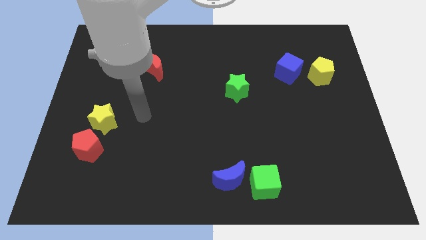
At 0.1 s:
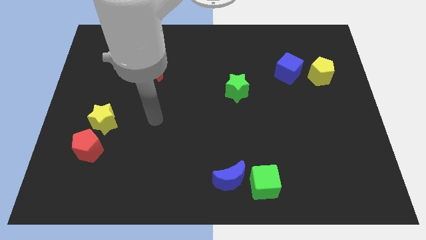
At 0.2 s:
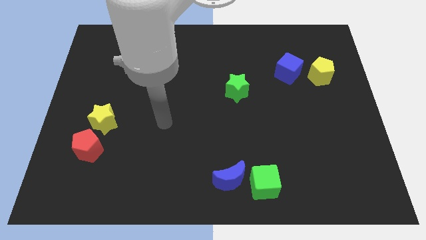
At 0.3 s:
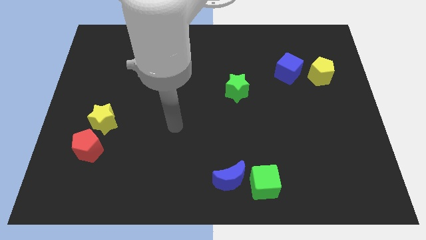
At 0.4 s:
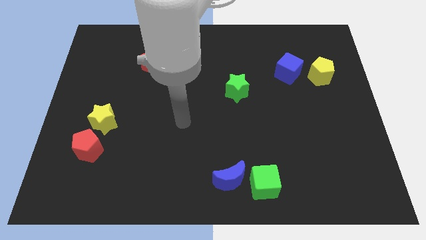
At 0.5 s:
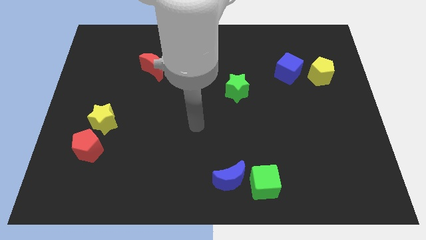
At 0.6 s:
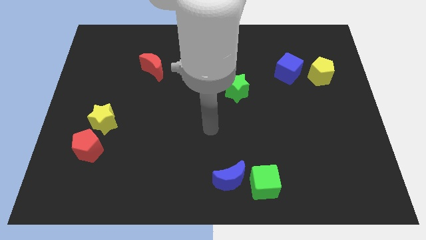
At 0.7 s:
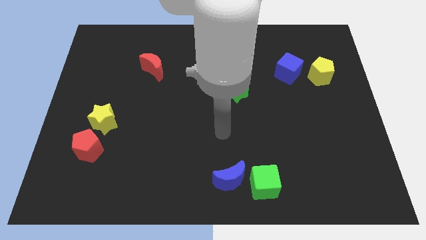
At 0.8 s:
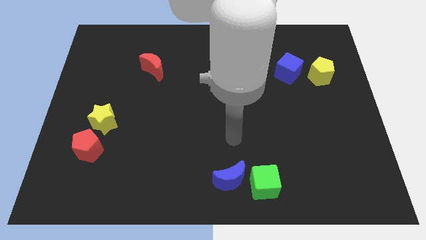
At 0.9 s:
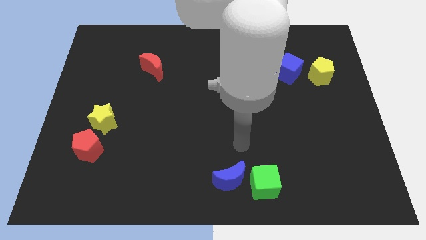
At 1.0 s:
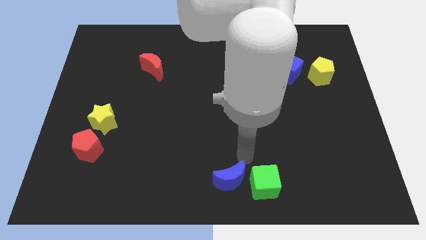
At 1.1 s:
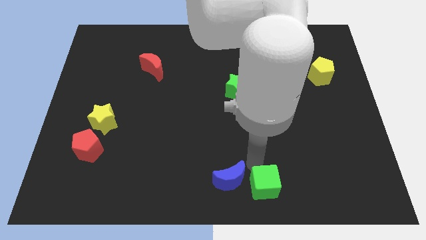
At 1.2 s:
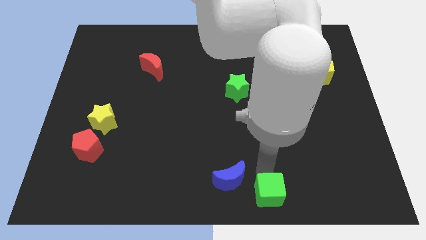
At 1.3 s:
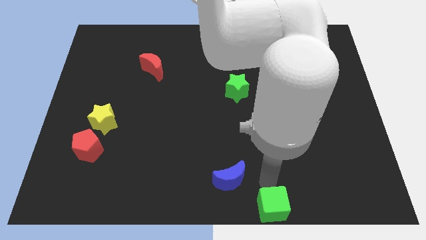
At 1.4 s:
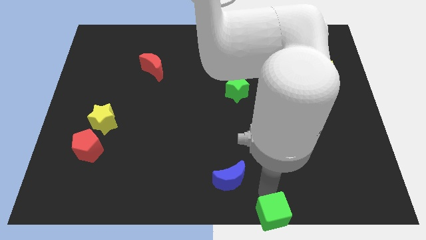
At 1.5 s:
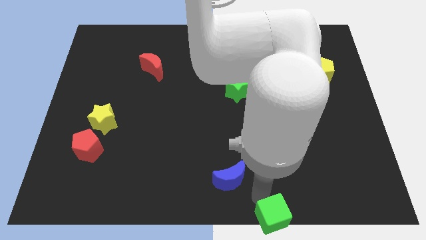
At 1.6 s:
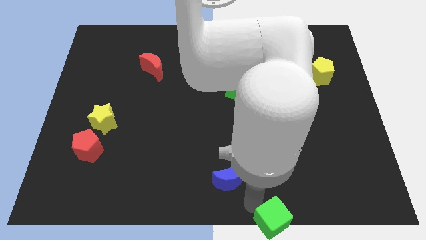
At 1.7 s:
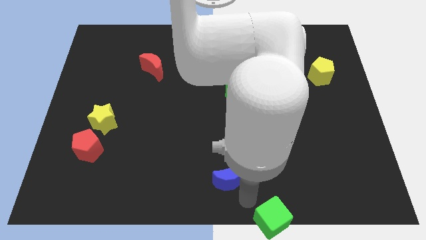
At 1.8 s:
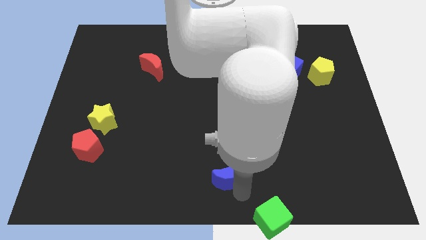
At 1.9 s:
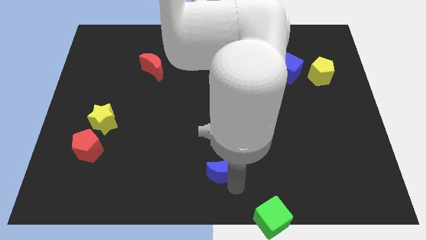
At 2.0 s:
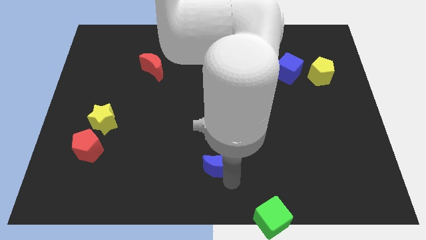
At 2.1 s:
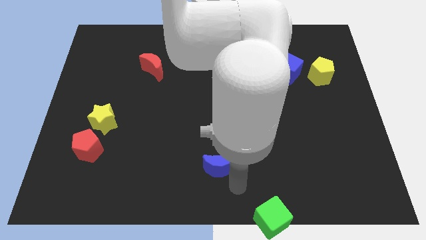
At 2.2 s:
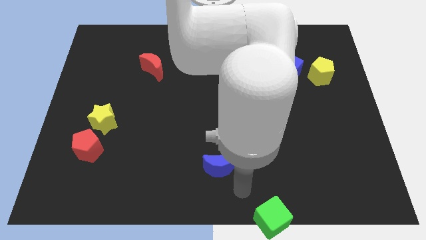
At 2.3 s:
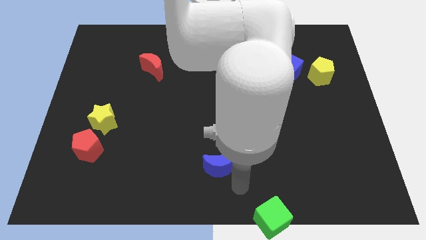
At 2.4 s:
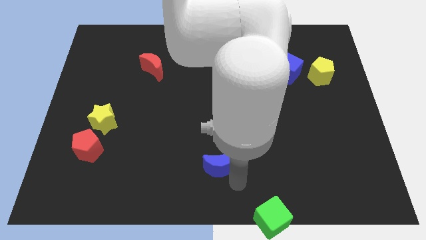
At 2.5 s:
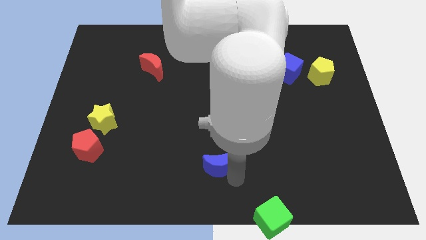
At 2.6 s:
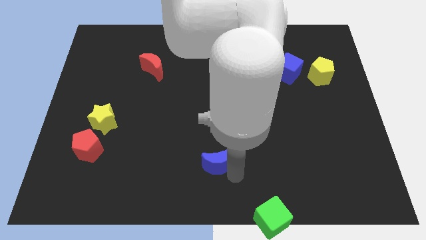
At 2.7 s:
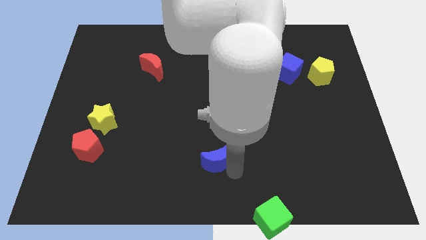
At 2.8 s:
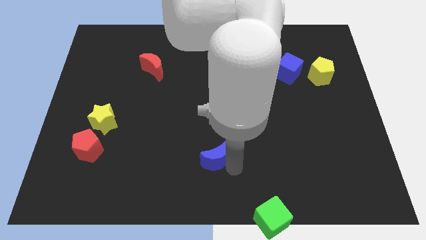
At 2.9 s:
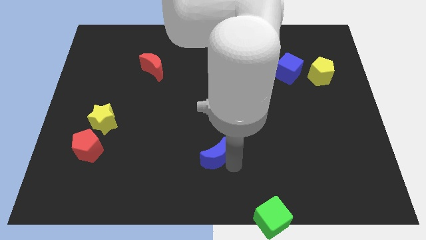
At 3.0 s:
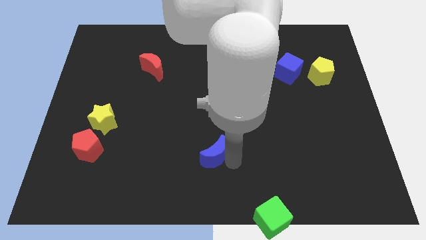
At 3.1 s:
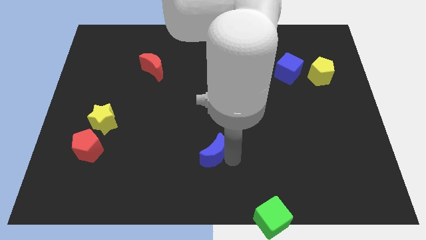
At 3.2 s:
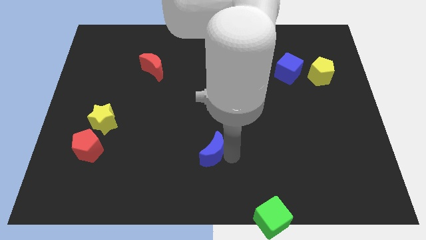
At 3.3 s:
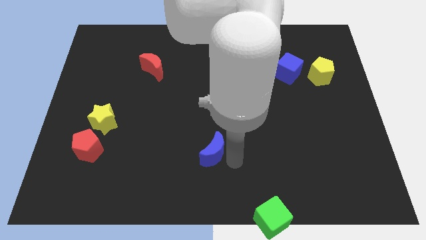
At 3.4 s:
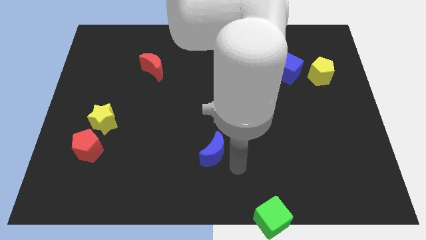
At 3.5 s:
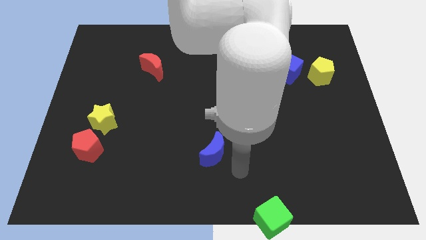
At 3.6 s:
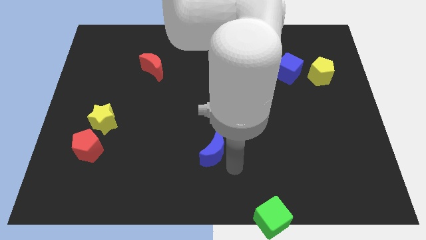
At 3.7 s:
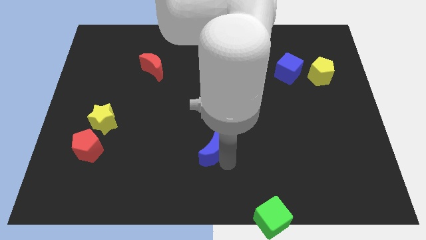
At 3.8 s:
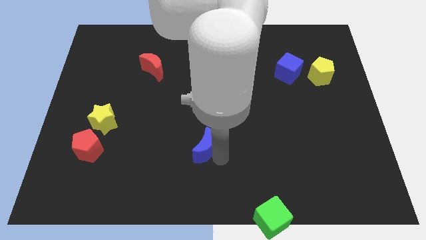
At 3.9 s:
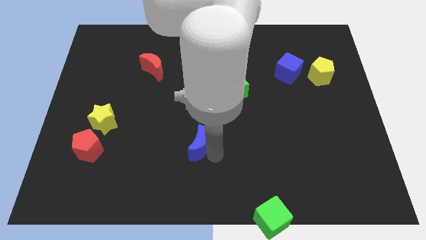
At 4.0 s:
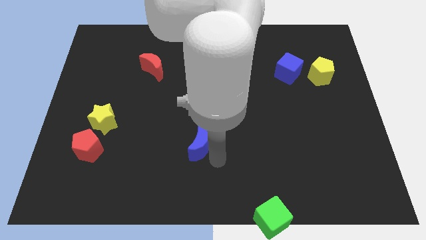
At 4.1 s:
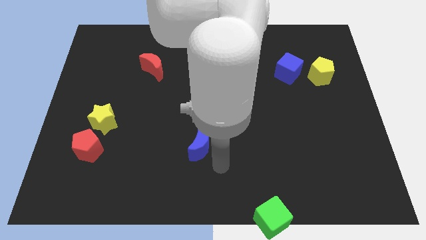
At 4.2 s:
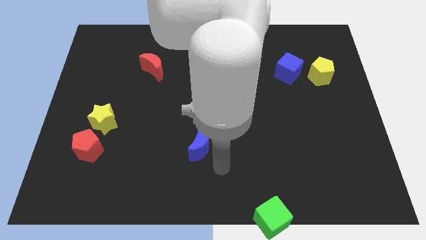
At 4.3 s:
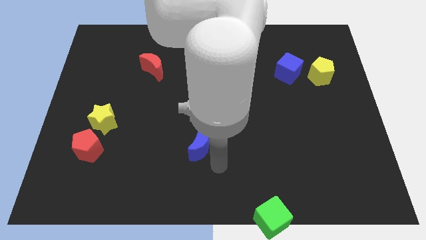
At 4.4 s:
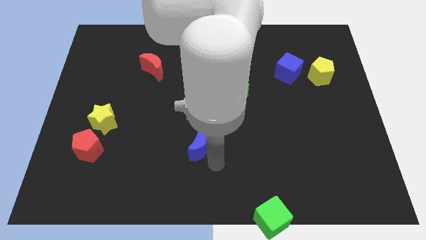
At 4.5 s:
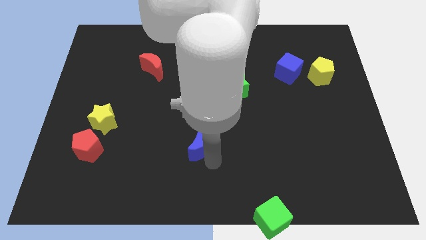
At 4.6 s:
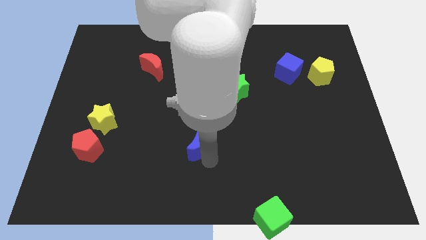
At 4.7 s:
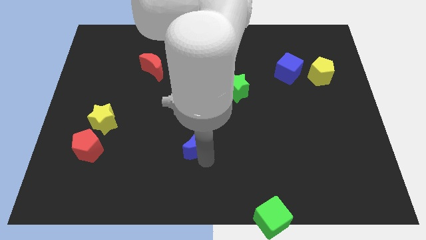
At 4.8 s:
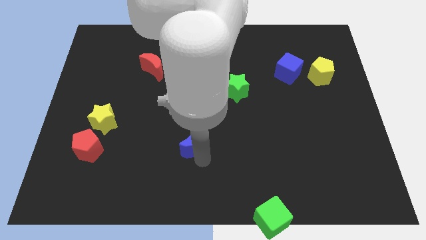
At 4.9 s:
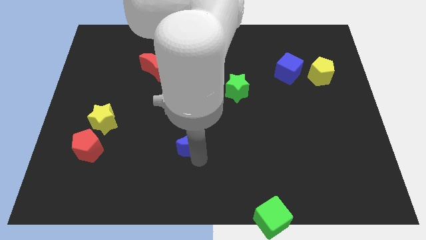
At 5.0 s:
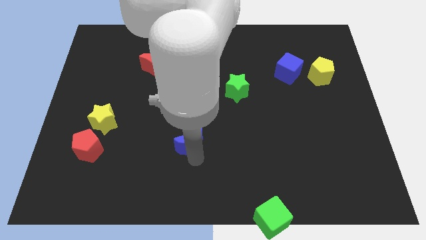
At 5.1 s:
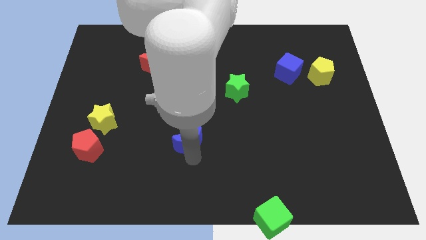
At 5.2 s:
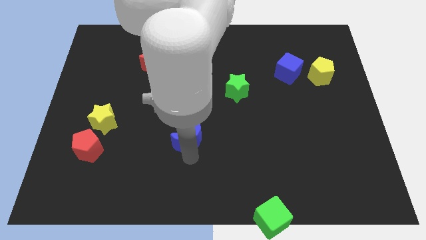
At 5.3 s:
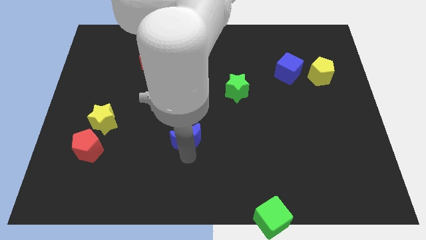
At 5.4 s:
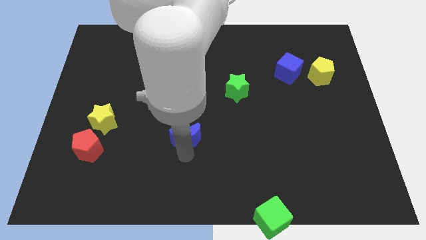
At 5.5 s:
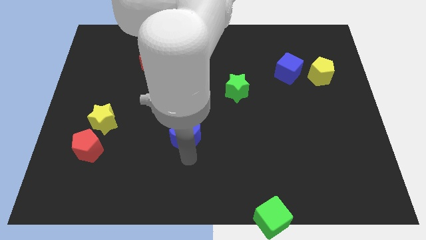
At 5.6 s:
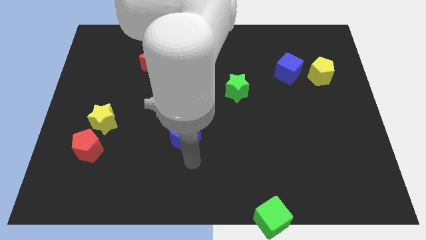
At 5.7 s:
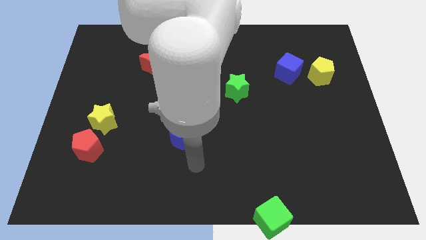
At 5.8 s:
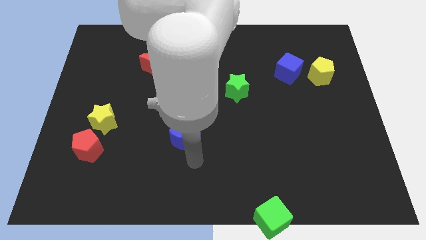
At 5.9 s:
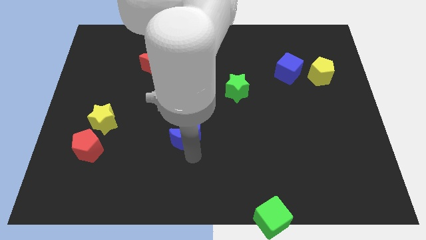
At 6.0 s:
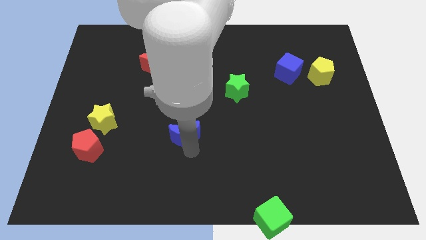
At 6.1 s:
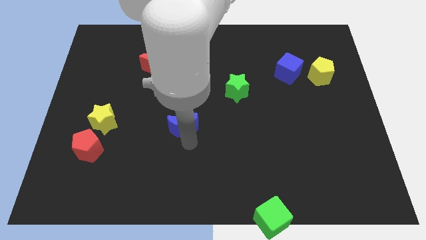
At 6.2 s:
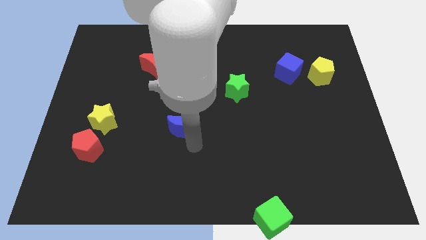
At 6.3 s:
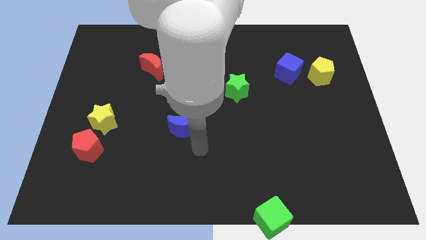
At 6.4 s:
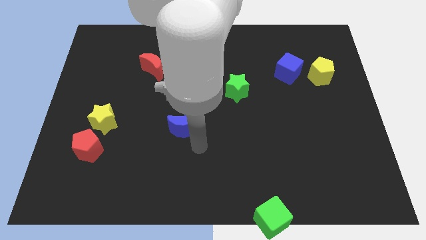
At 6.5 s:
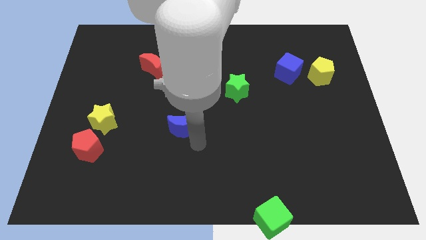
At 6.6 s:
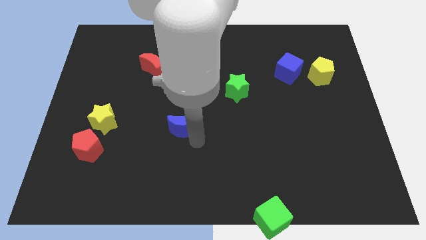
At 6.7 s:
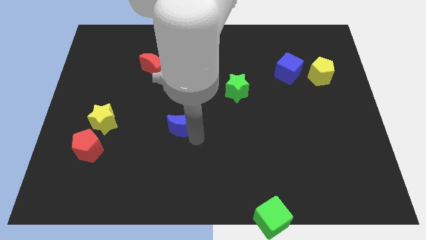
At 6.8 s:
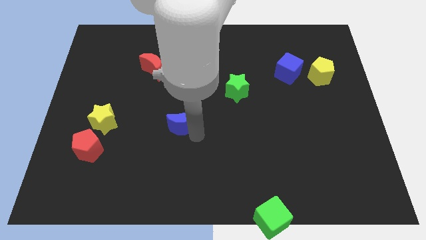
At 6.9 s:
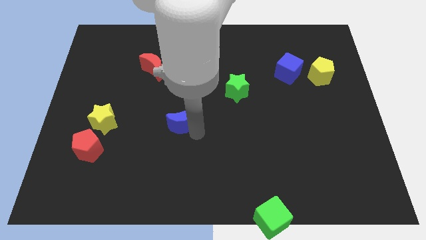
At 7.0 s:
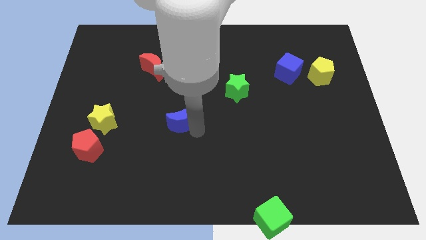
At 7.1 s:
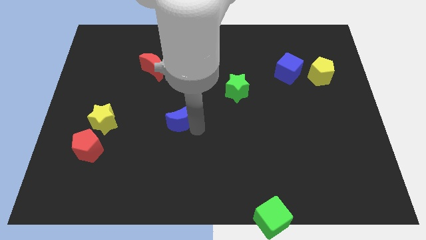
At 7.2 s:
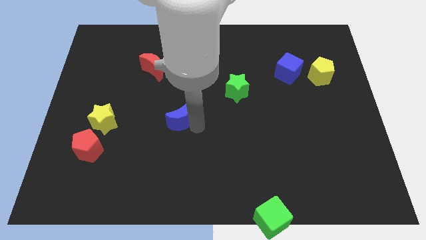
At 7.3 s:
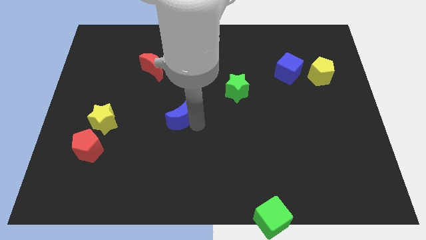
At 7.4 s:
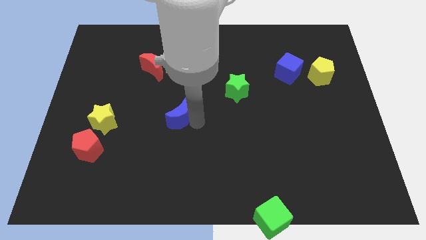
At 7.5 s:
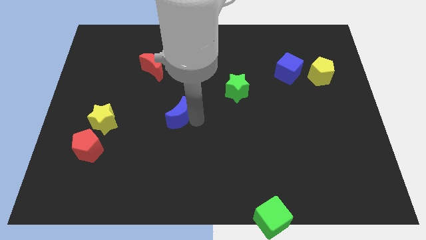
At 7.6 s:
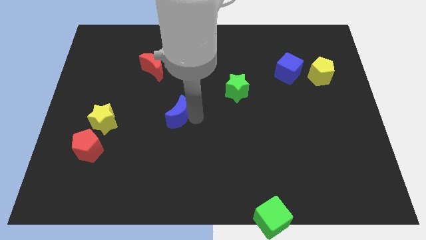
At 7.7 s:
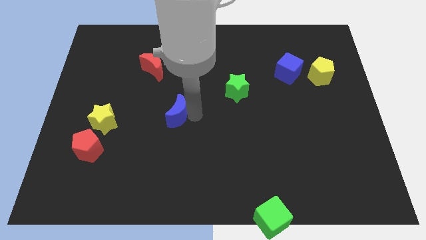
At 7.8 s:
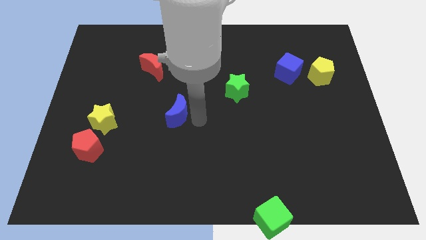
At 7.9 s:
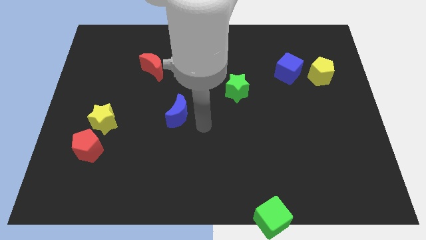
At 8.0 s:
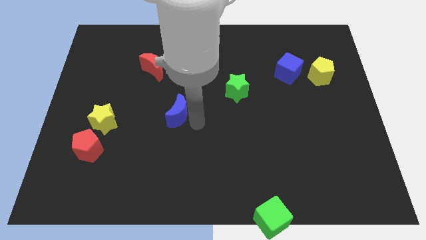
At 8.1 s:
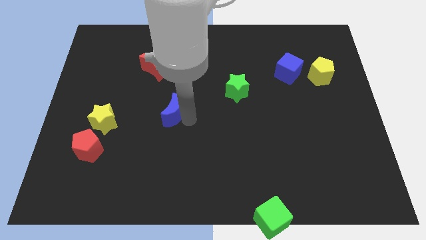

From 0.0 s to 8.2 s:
slide the blue moon diagonally up and to the left

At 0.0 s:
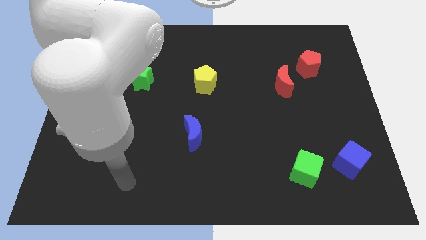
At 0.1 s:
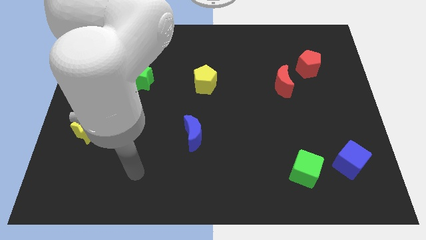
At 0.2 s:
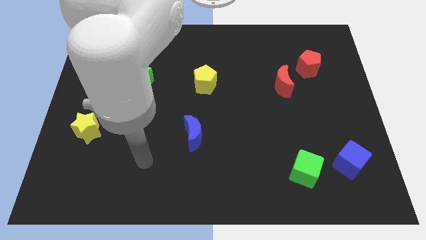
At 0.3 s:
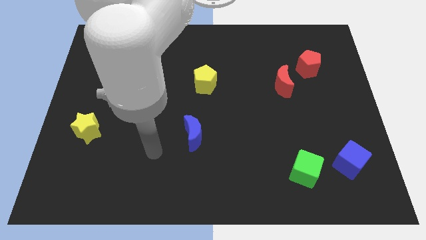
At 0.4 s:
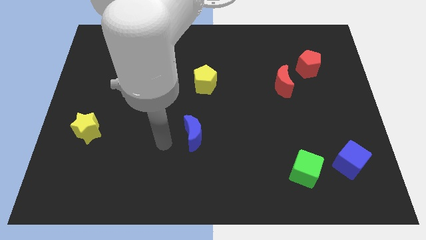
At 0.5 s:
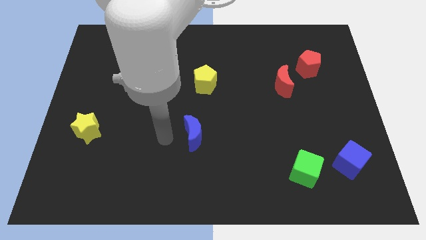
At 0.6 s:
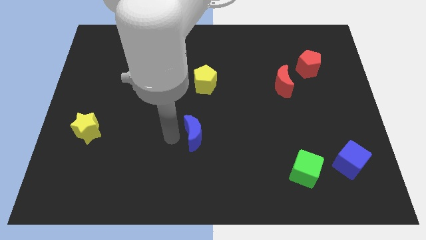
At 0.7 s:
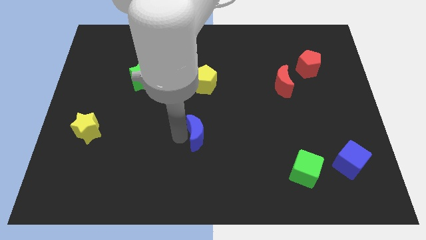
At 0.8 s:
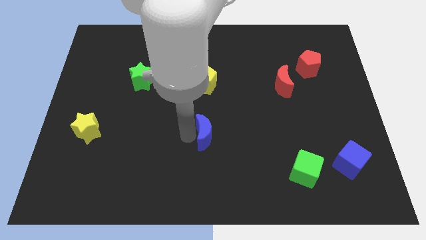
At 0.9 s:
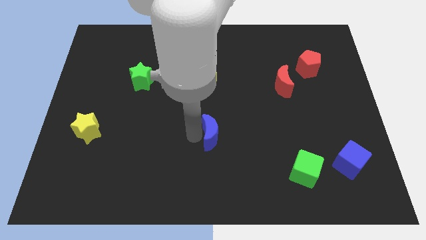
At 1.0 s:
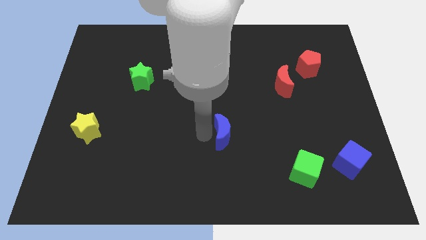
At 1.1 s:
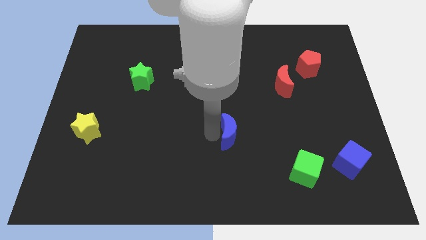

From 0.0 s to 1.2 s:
move the blue moon somewhat right
